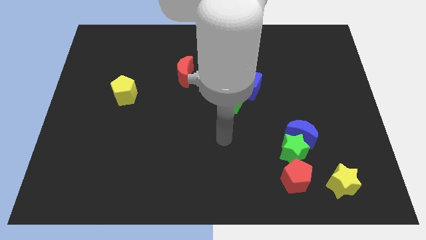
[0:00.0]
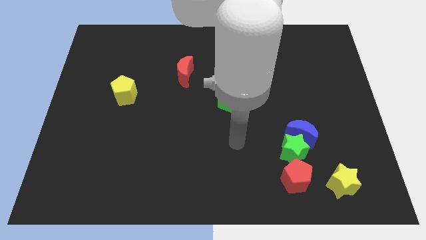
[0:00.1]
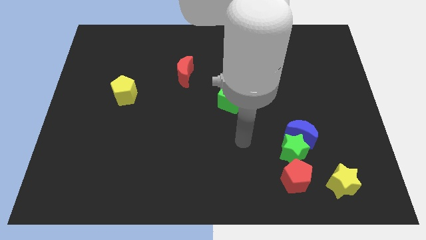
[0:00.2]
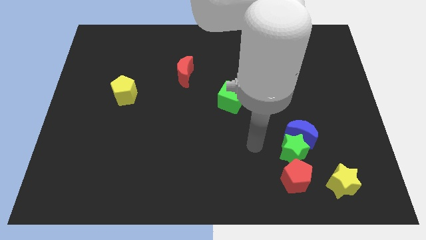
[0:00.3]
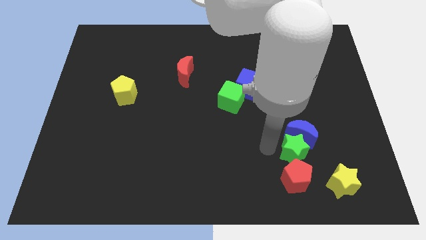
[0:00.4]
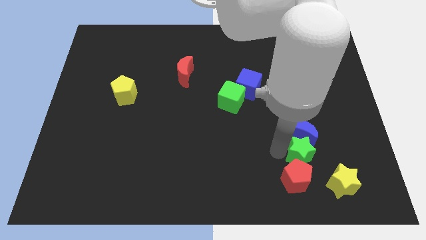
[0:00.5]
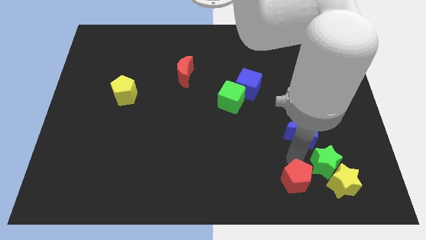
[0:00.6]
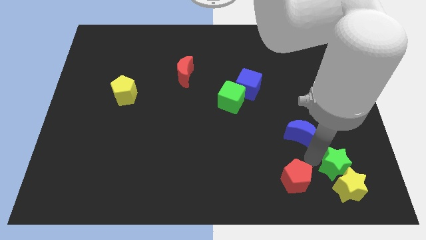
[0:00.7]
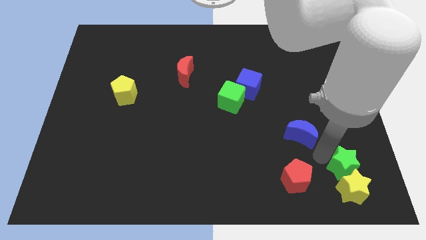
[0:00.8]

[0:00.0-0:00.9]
pull the blue moon apart from the green star

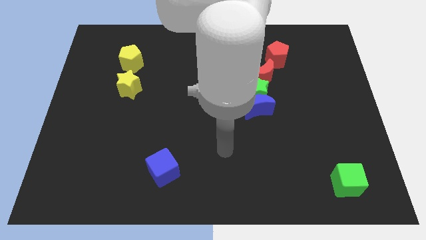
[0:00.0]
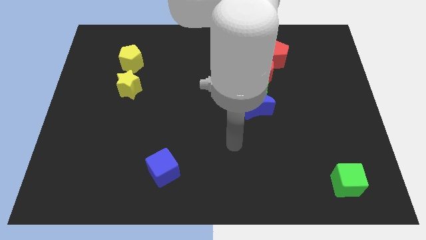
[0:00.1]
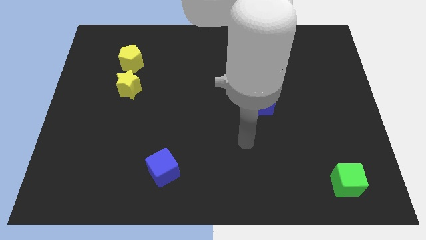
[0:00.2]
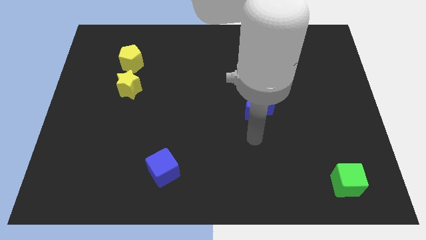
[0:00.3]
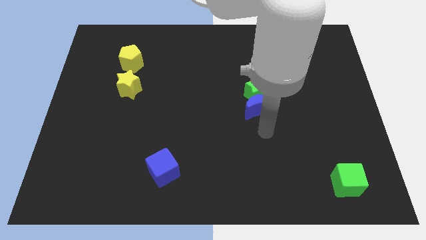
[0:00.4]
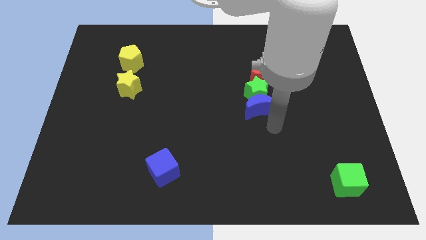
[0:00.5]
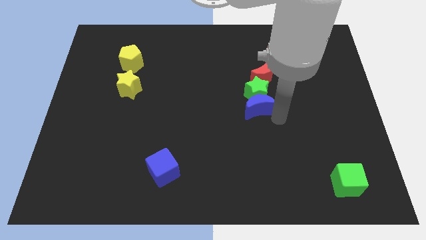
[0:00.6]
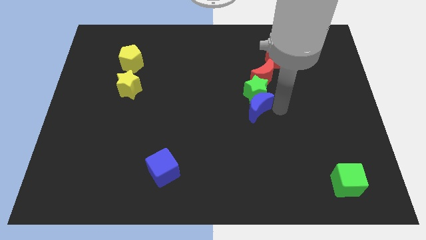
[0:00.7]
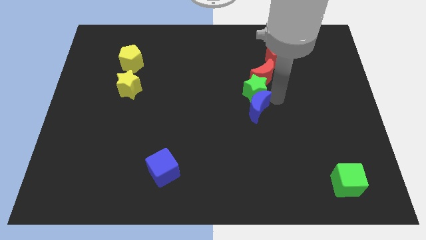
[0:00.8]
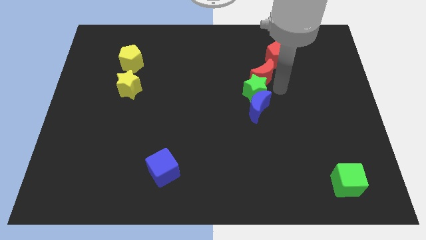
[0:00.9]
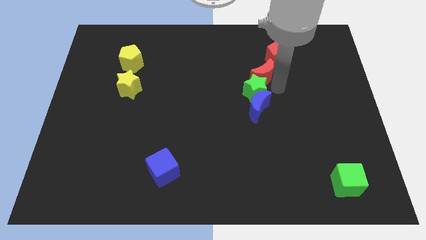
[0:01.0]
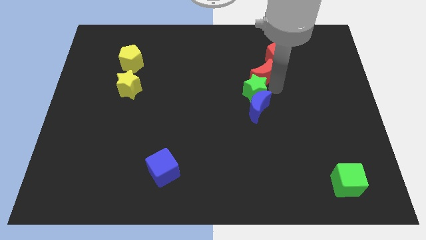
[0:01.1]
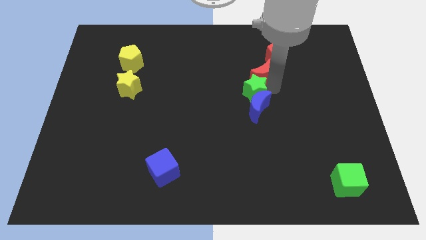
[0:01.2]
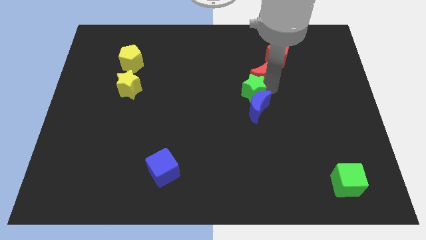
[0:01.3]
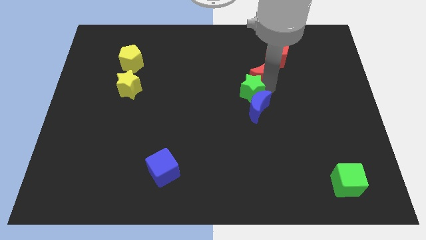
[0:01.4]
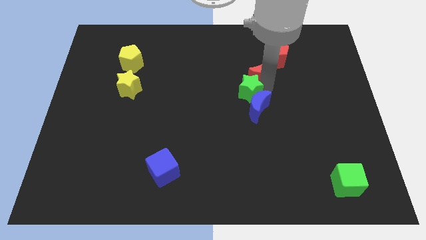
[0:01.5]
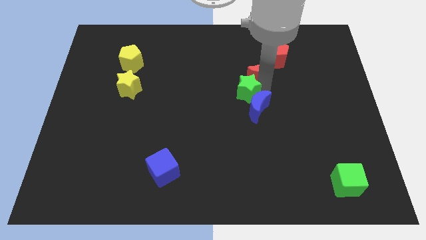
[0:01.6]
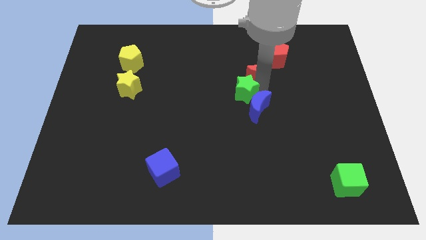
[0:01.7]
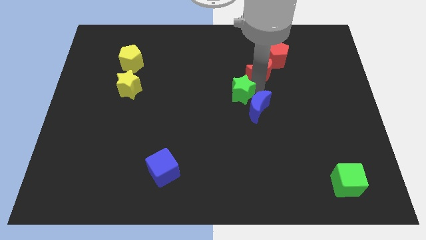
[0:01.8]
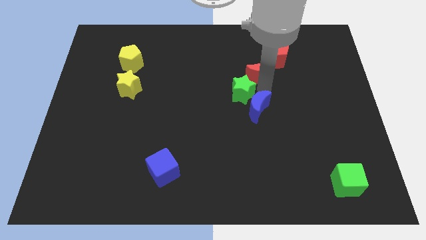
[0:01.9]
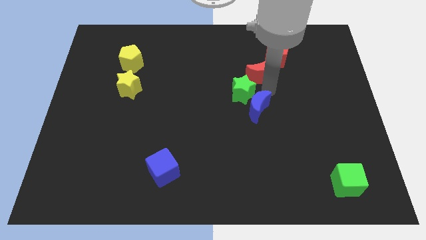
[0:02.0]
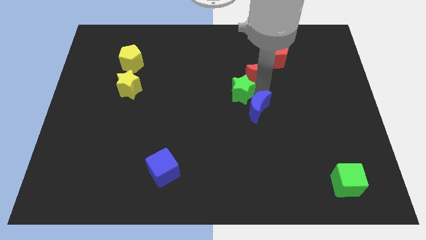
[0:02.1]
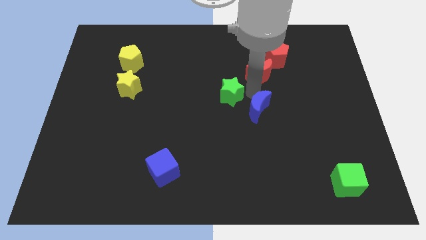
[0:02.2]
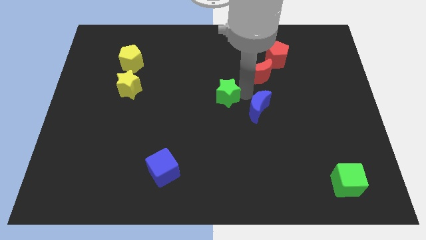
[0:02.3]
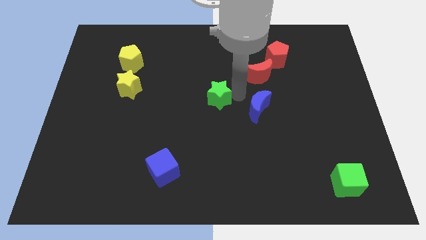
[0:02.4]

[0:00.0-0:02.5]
separate the green star from the blue moon and red moon

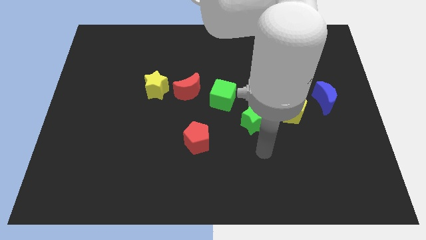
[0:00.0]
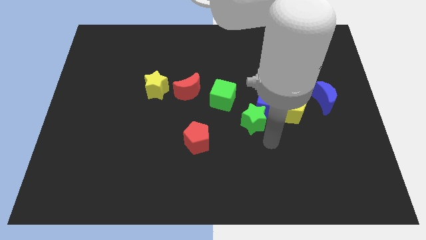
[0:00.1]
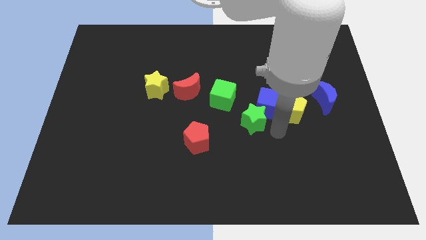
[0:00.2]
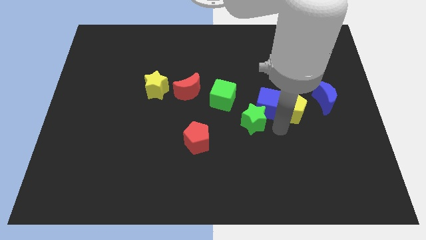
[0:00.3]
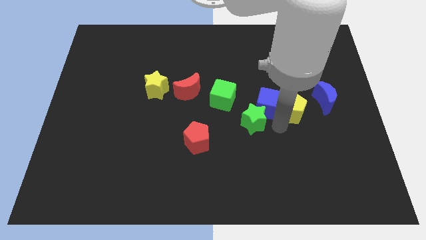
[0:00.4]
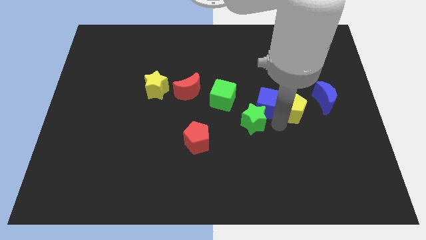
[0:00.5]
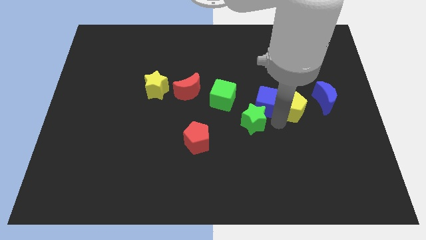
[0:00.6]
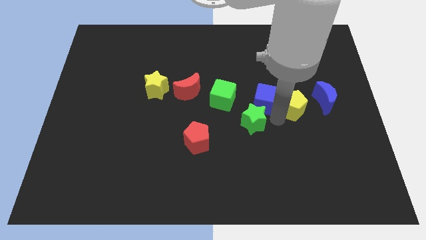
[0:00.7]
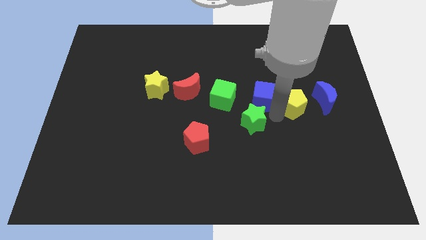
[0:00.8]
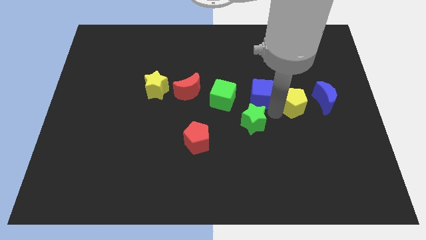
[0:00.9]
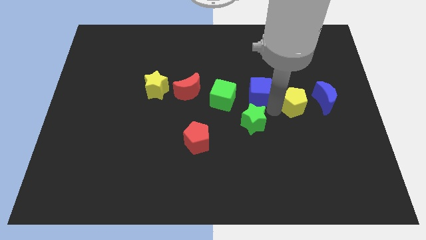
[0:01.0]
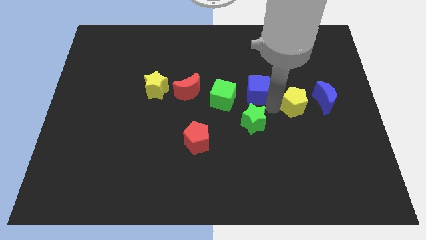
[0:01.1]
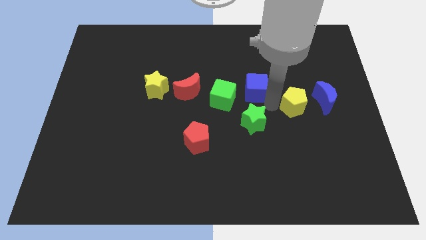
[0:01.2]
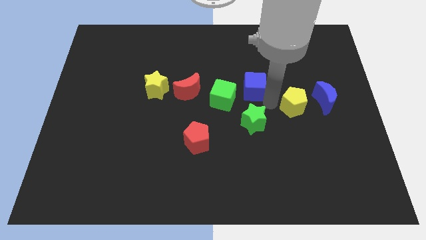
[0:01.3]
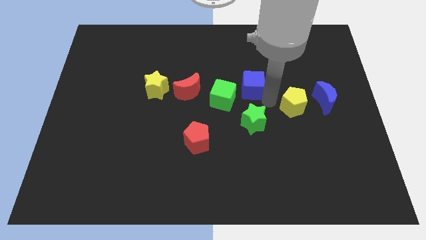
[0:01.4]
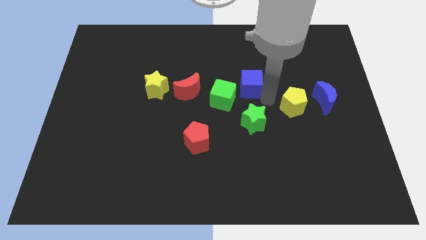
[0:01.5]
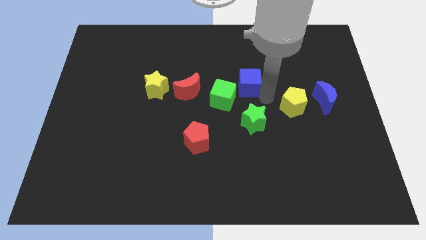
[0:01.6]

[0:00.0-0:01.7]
pull the blue cube apart from the green star and yellow pentagon

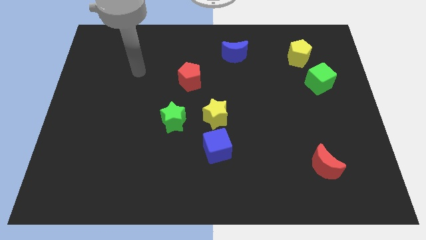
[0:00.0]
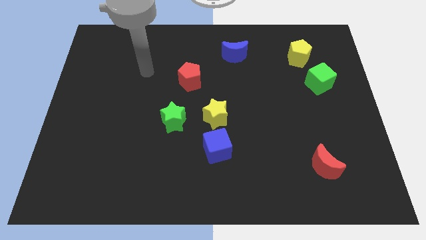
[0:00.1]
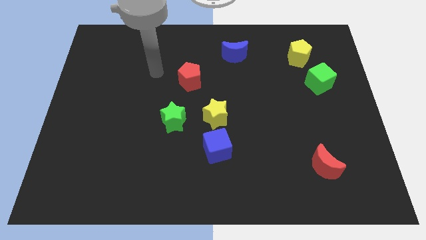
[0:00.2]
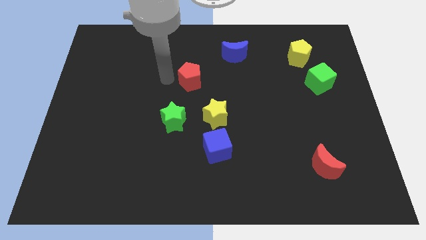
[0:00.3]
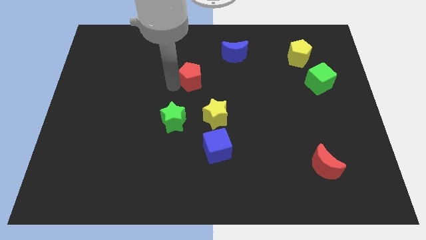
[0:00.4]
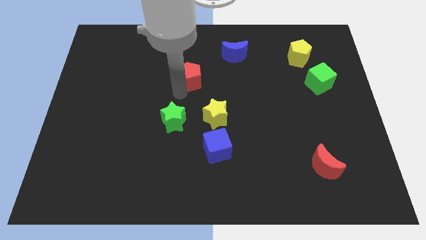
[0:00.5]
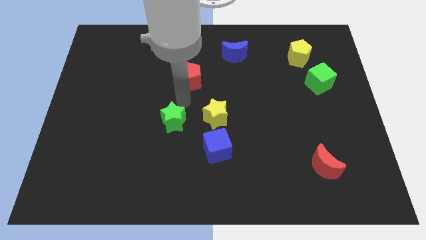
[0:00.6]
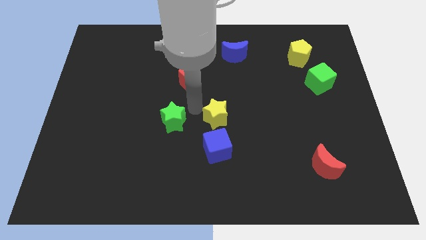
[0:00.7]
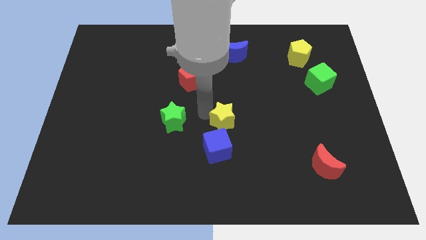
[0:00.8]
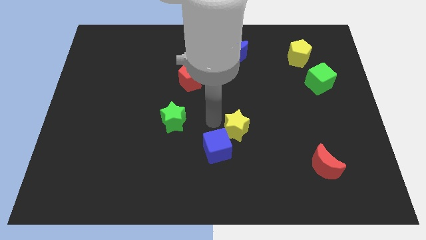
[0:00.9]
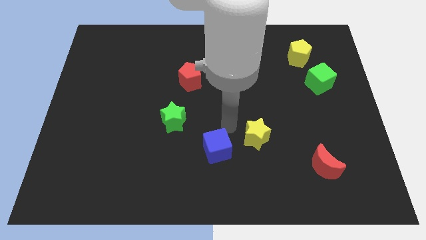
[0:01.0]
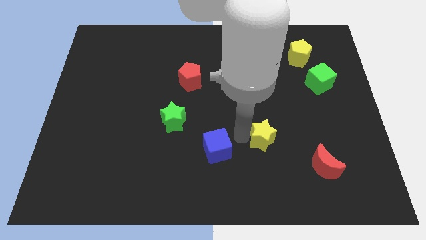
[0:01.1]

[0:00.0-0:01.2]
separate the blue cube from the yellow star

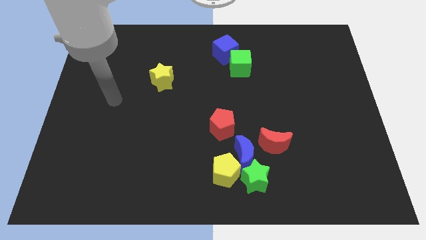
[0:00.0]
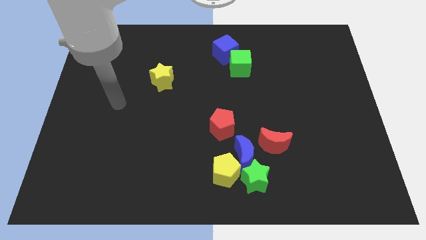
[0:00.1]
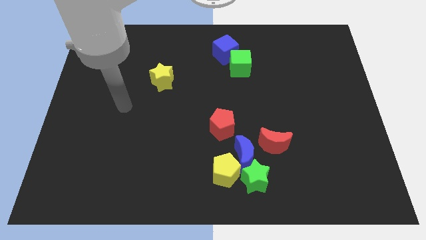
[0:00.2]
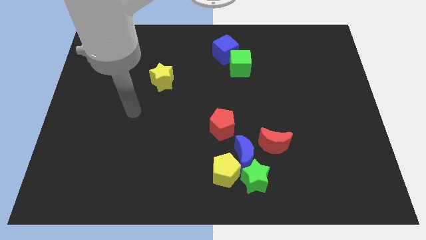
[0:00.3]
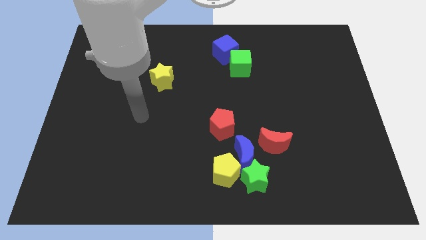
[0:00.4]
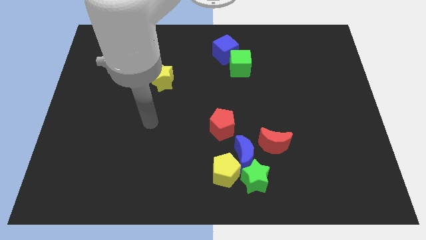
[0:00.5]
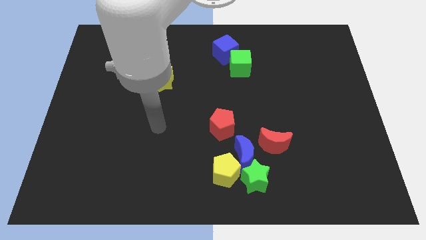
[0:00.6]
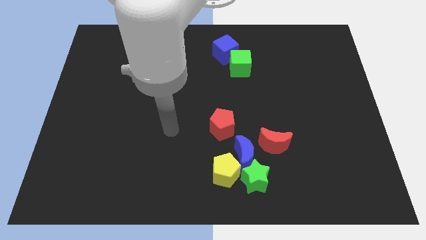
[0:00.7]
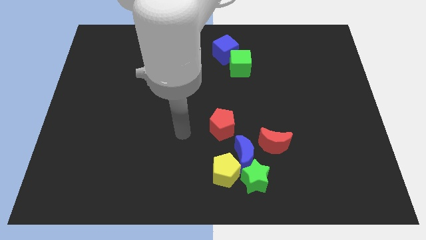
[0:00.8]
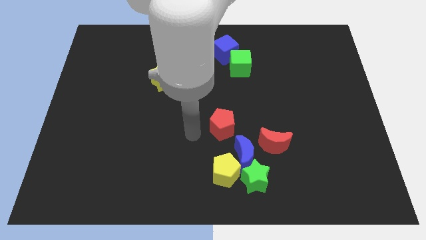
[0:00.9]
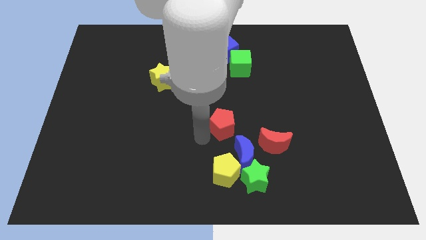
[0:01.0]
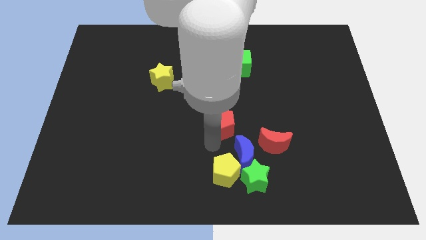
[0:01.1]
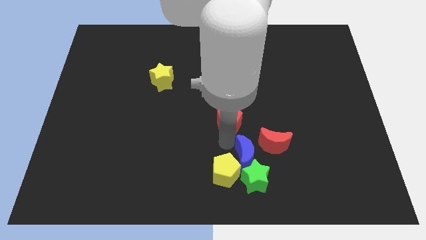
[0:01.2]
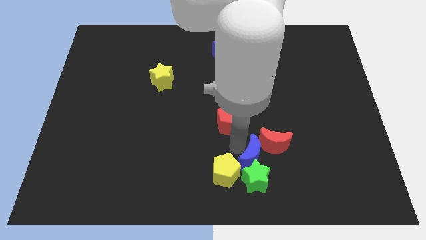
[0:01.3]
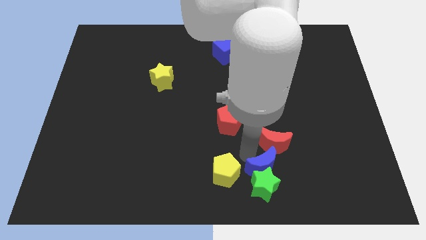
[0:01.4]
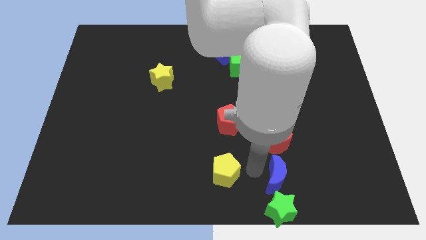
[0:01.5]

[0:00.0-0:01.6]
separate the yellow pentagon from the blue moon and green star

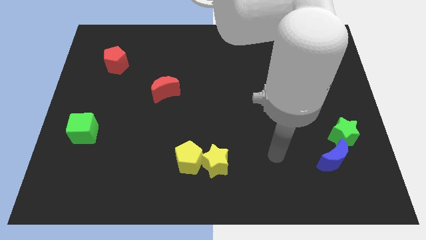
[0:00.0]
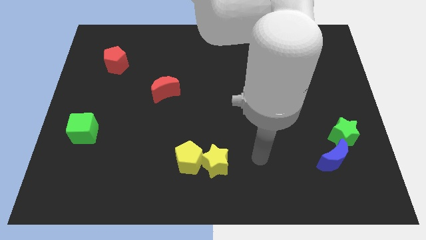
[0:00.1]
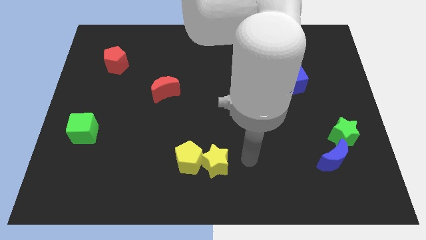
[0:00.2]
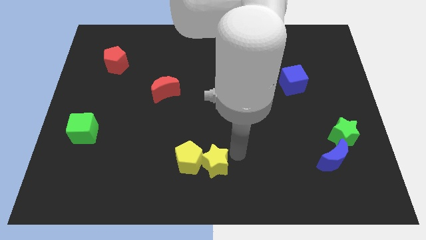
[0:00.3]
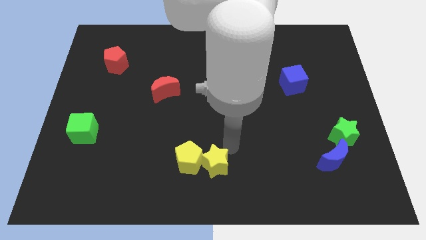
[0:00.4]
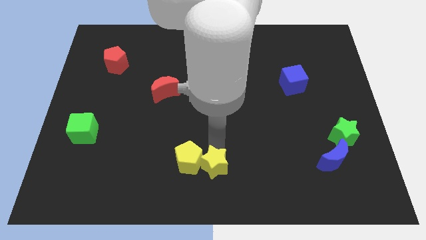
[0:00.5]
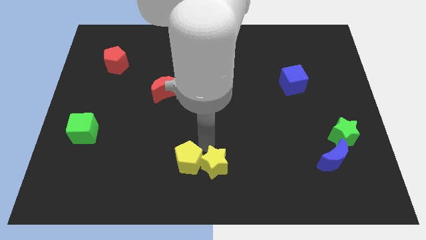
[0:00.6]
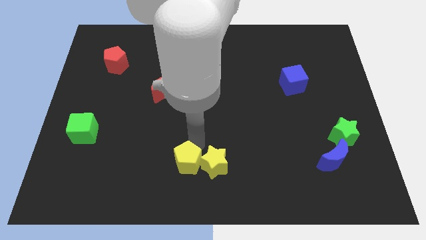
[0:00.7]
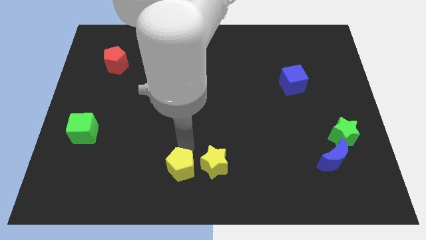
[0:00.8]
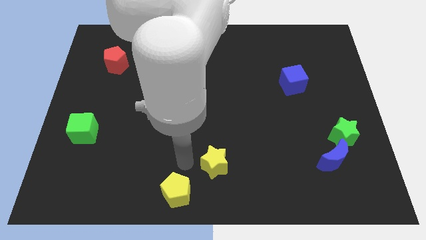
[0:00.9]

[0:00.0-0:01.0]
move the yellow star away from the yellow pentagon

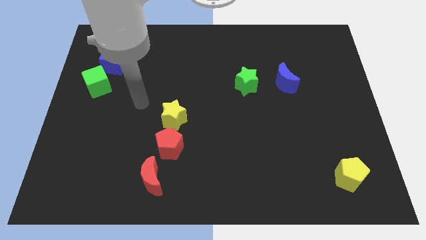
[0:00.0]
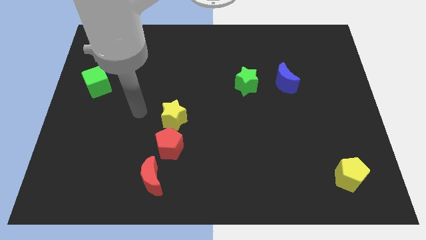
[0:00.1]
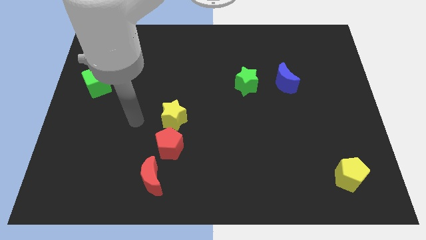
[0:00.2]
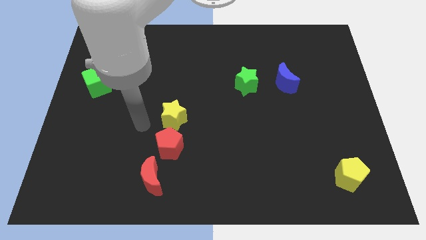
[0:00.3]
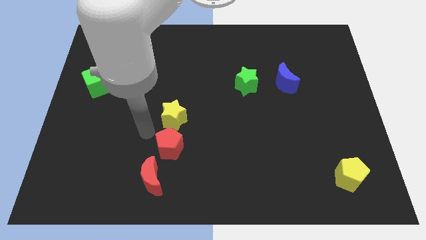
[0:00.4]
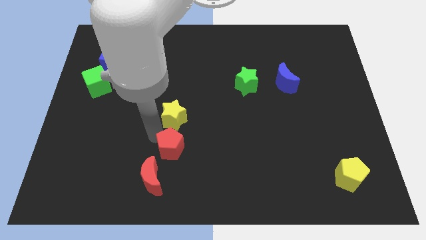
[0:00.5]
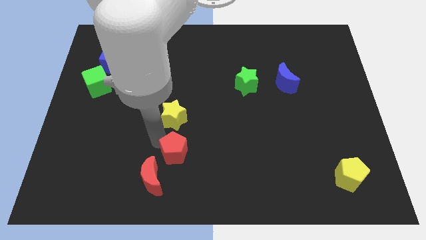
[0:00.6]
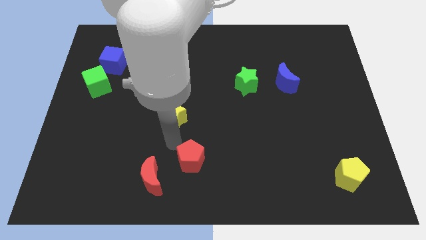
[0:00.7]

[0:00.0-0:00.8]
pull the yellow star apart from the red pentagon
